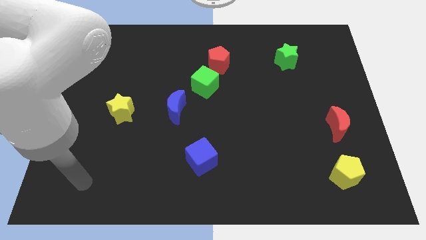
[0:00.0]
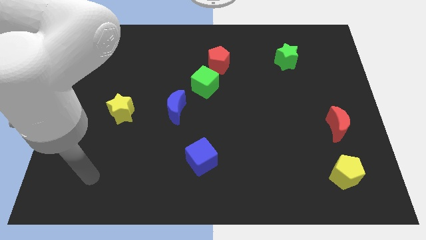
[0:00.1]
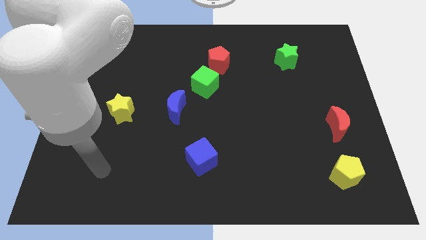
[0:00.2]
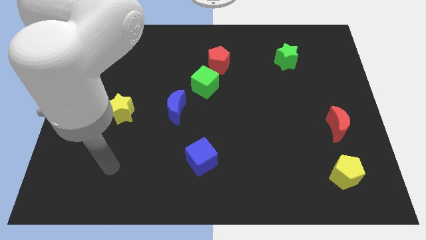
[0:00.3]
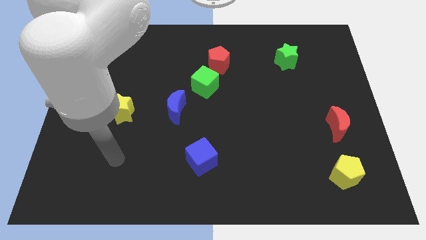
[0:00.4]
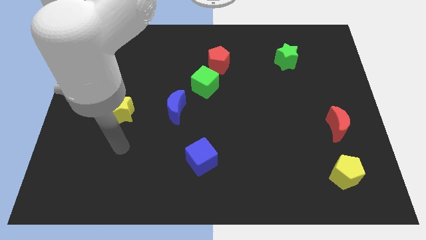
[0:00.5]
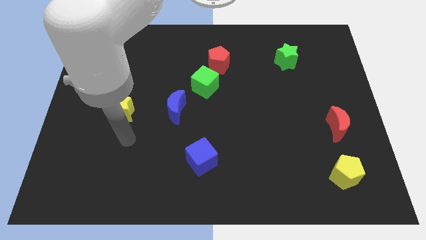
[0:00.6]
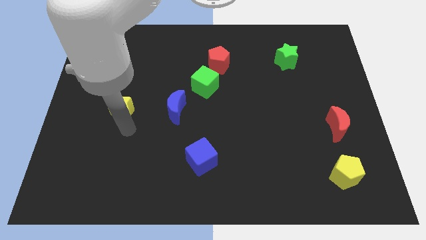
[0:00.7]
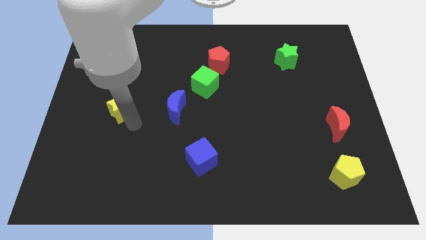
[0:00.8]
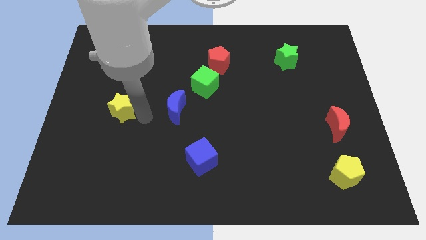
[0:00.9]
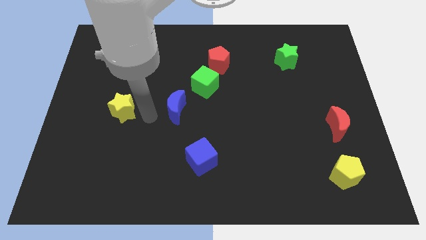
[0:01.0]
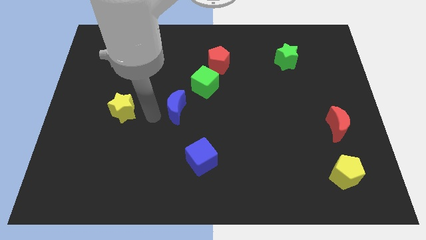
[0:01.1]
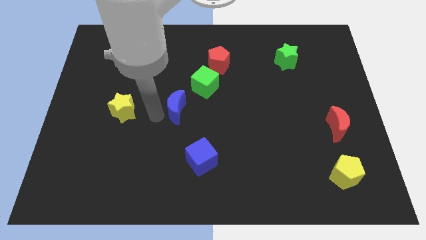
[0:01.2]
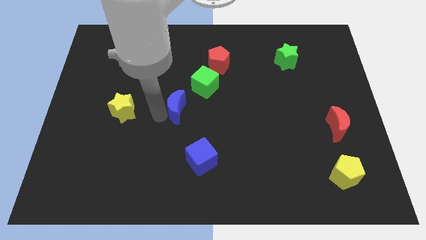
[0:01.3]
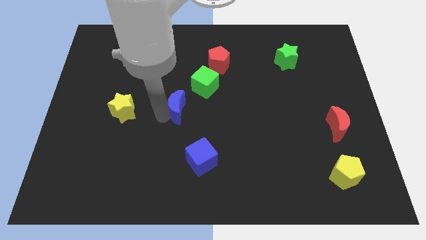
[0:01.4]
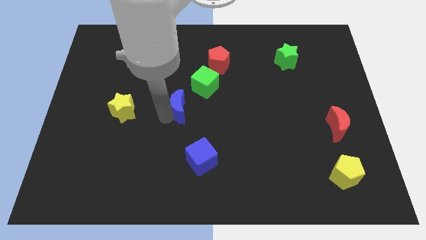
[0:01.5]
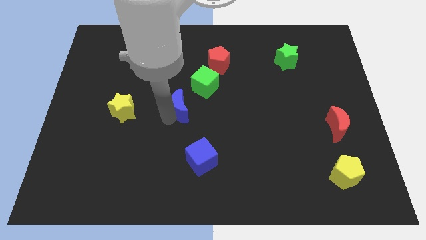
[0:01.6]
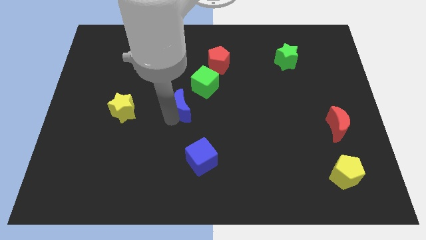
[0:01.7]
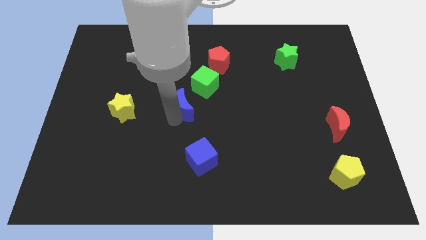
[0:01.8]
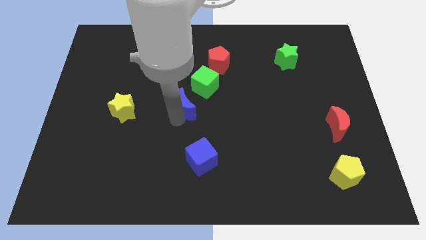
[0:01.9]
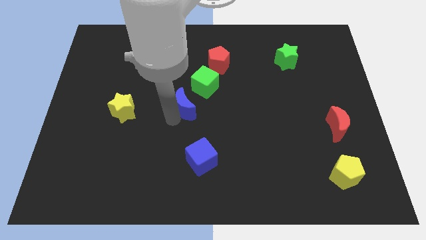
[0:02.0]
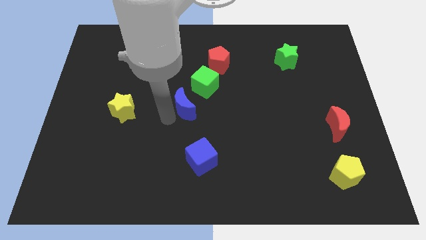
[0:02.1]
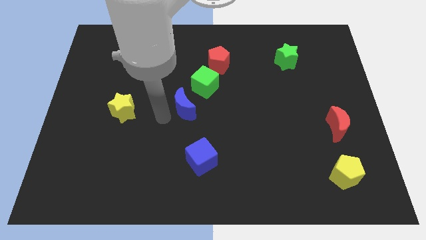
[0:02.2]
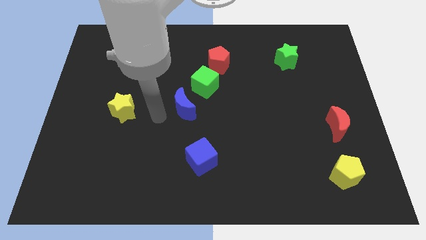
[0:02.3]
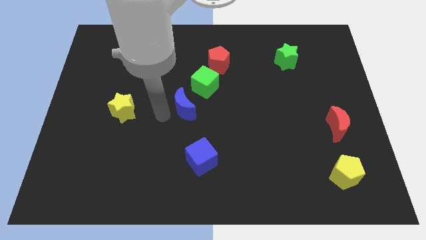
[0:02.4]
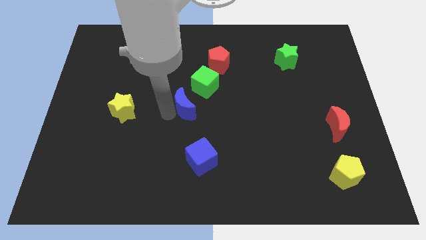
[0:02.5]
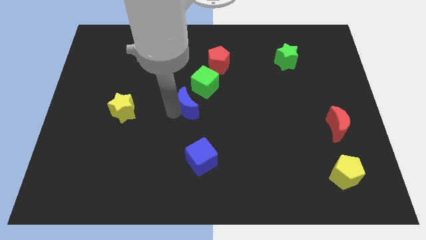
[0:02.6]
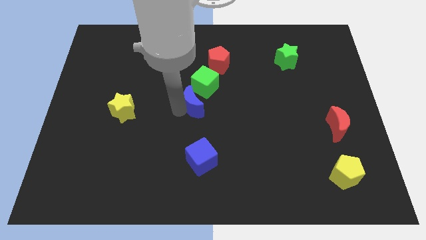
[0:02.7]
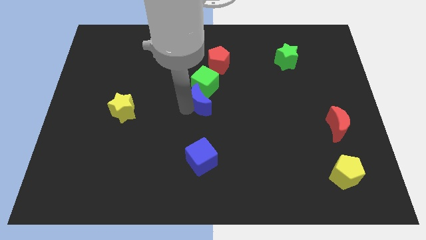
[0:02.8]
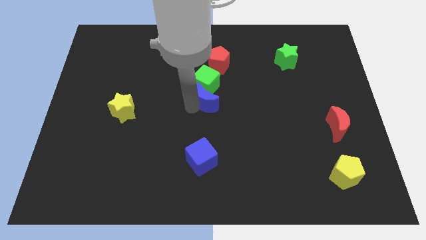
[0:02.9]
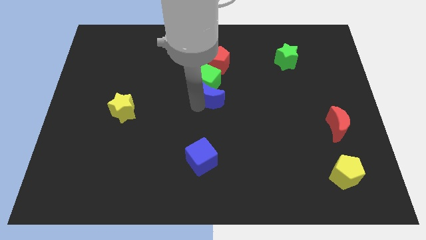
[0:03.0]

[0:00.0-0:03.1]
push the blue moon upwards and to the right diagonally a bit

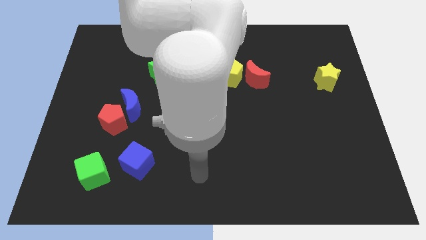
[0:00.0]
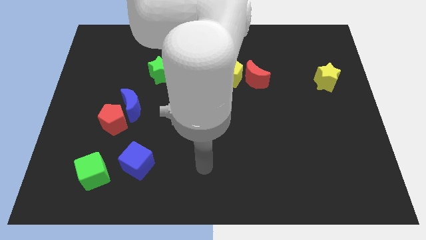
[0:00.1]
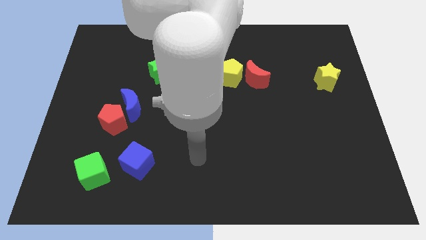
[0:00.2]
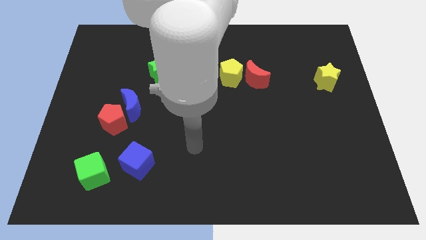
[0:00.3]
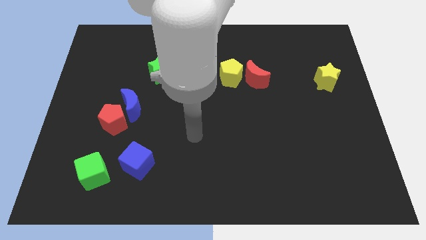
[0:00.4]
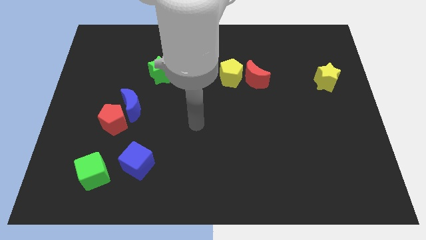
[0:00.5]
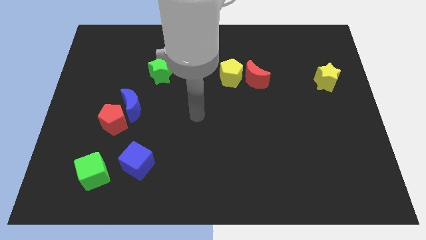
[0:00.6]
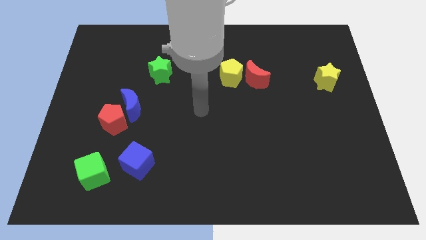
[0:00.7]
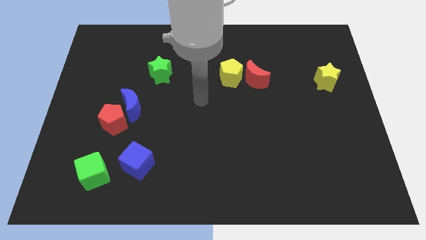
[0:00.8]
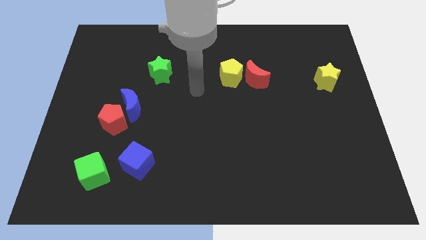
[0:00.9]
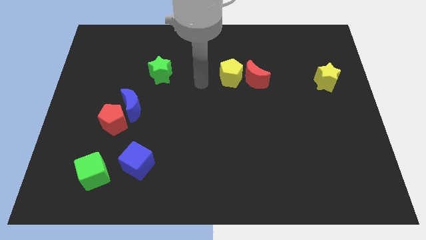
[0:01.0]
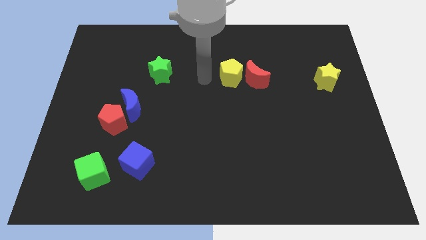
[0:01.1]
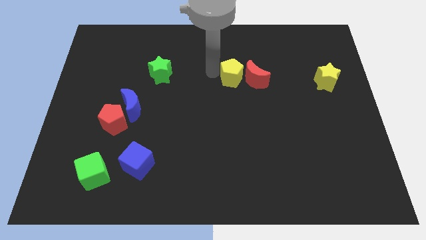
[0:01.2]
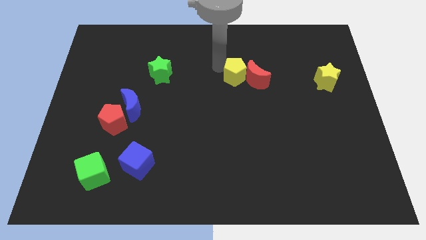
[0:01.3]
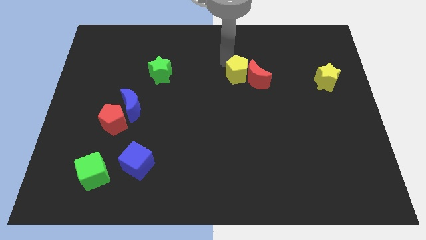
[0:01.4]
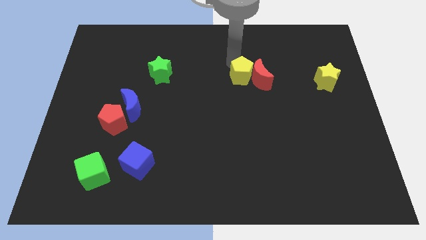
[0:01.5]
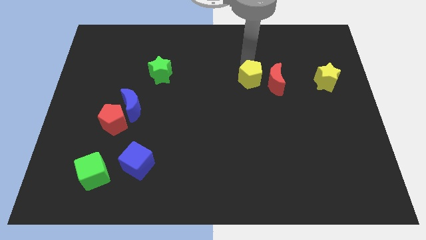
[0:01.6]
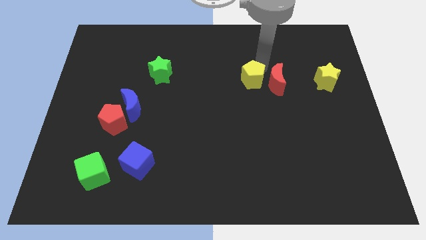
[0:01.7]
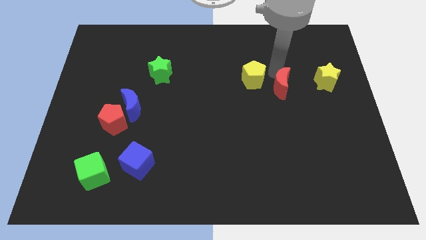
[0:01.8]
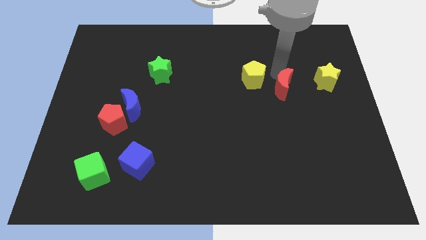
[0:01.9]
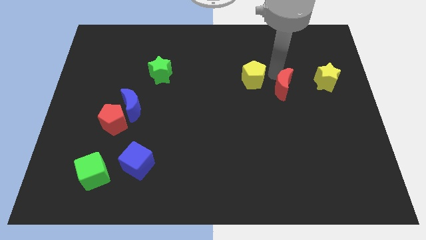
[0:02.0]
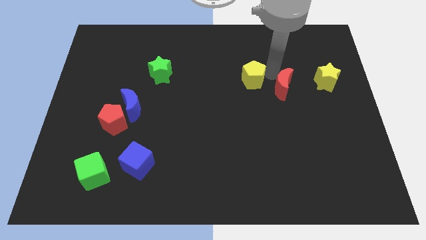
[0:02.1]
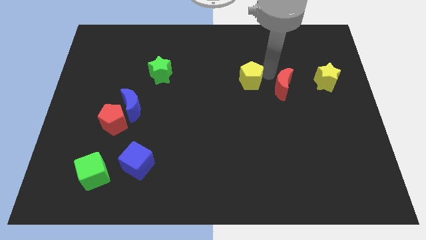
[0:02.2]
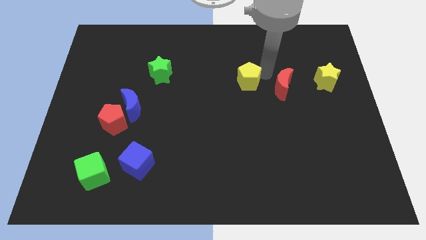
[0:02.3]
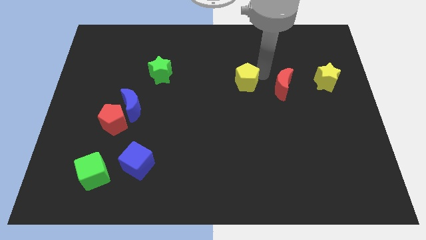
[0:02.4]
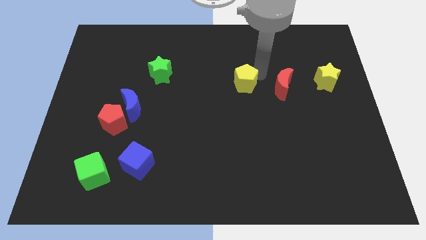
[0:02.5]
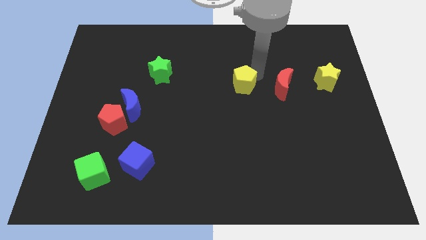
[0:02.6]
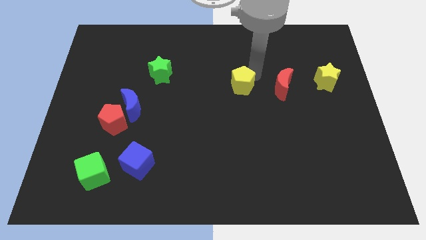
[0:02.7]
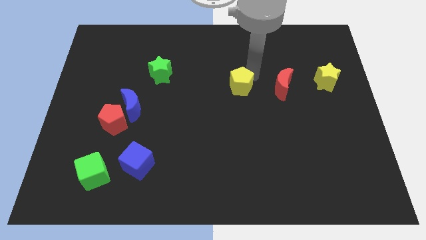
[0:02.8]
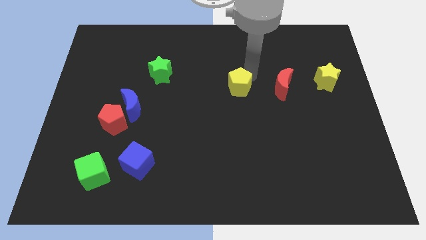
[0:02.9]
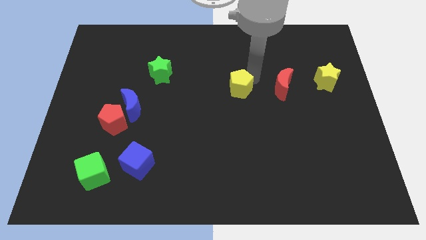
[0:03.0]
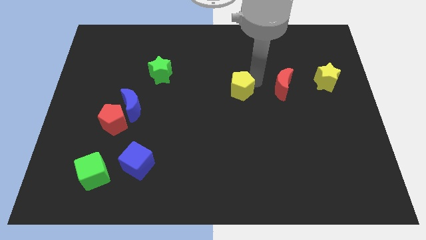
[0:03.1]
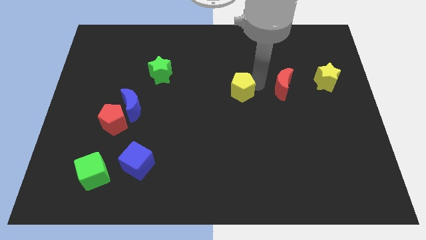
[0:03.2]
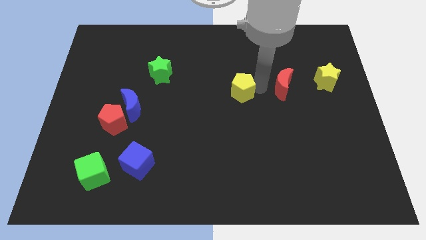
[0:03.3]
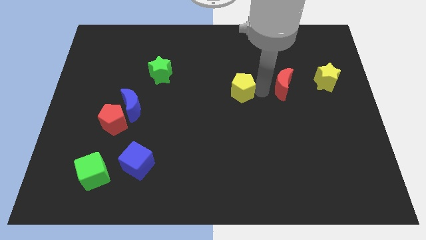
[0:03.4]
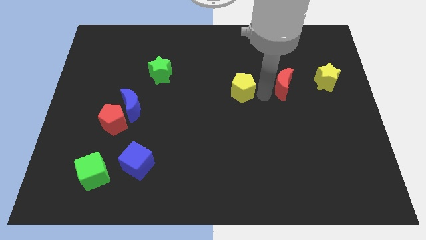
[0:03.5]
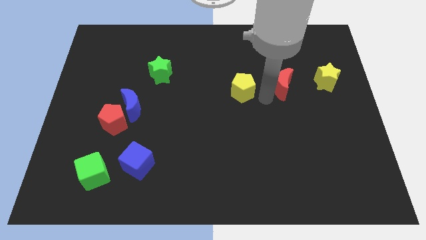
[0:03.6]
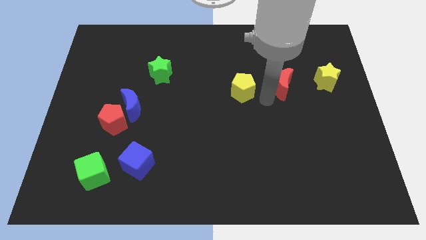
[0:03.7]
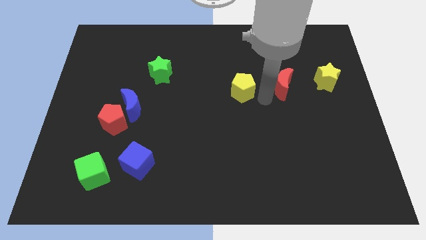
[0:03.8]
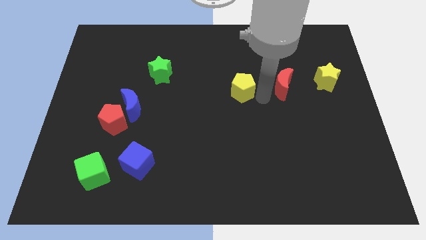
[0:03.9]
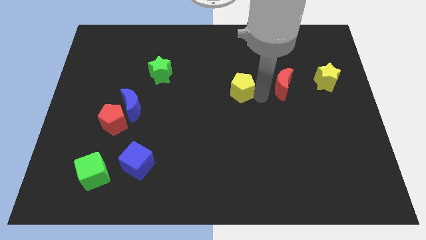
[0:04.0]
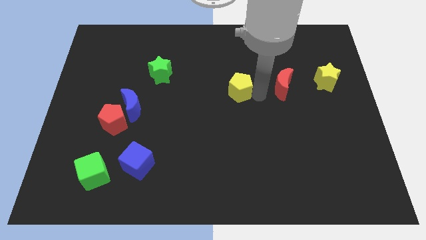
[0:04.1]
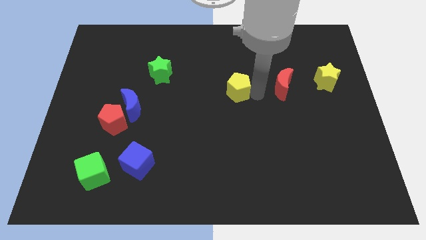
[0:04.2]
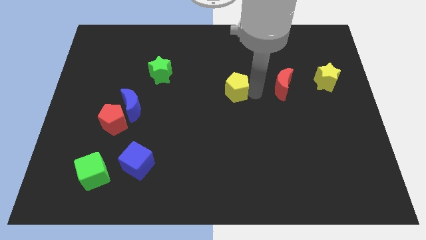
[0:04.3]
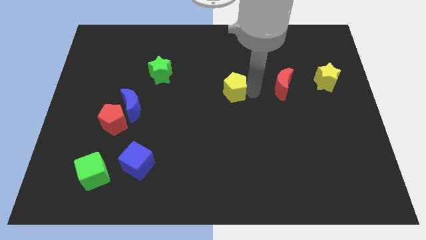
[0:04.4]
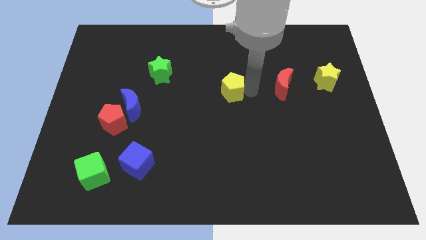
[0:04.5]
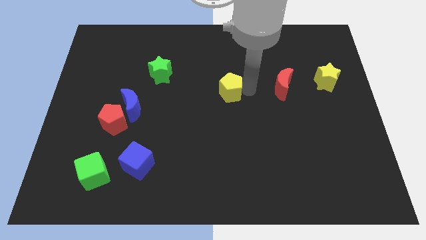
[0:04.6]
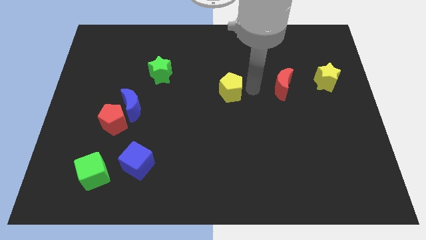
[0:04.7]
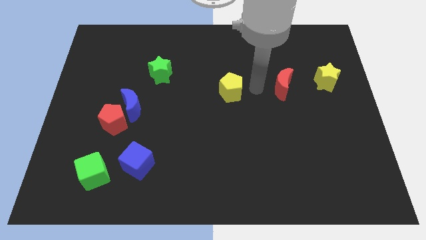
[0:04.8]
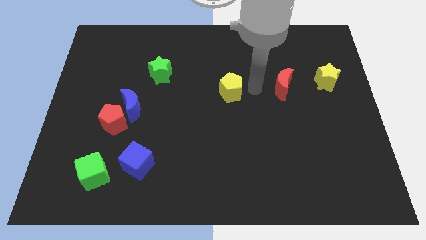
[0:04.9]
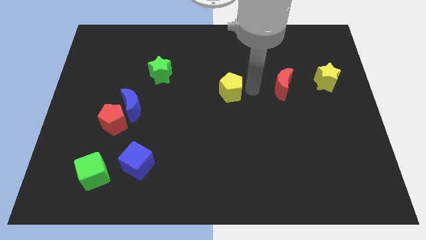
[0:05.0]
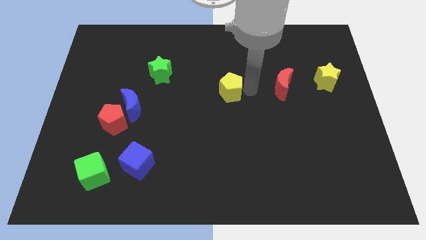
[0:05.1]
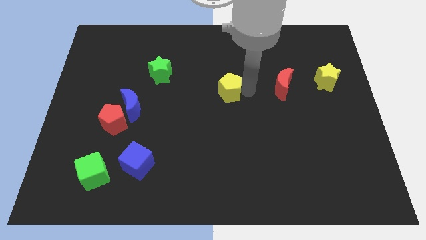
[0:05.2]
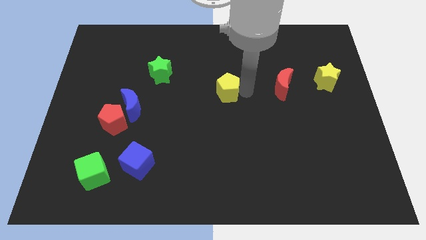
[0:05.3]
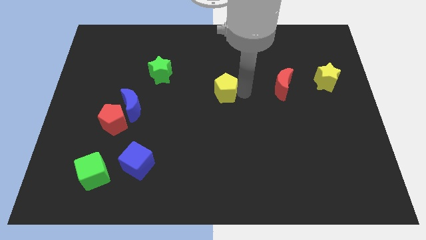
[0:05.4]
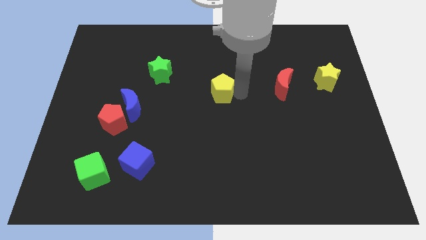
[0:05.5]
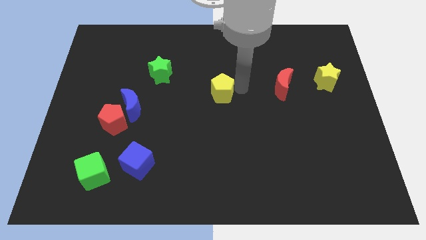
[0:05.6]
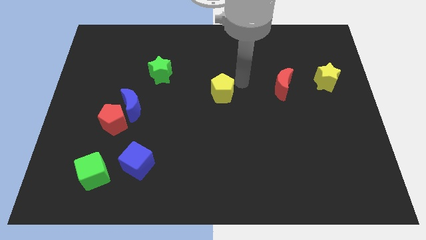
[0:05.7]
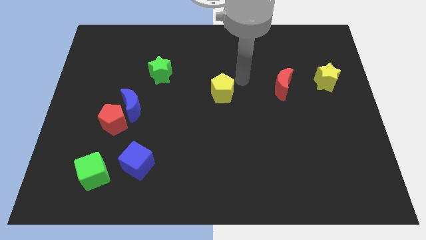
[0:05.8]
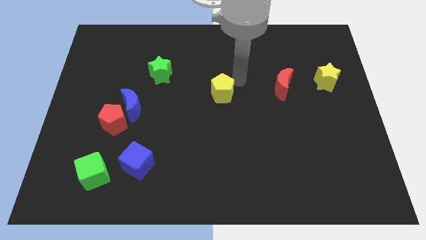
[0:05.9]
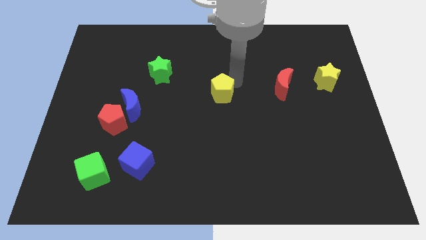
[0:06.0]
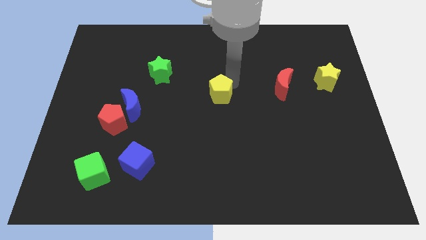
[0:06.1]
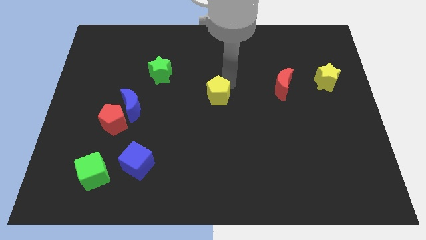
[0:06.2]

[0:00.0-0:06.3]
push the yellow pentagon downwards and left a little bit
